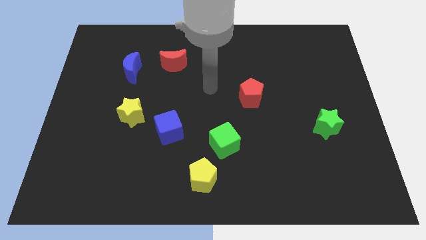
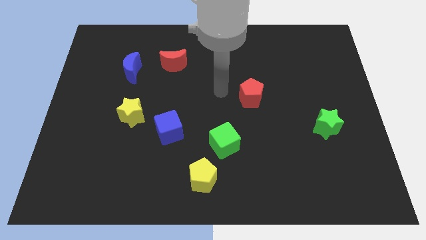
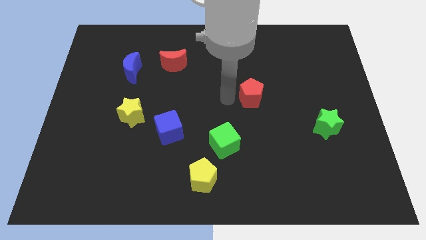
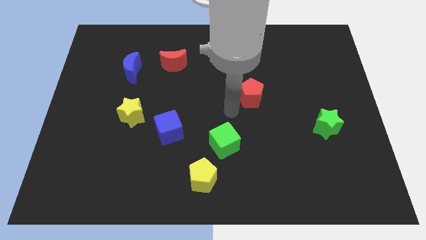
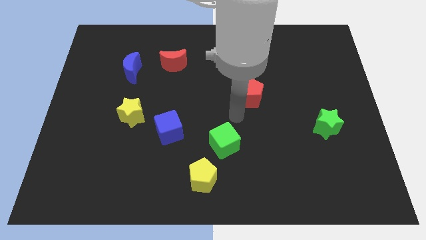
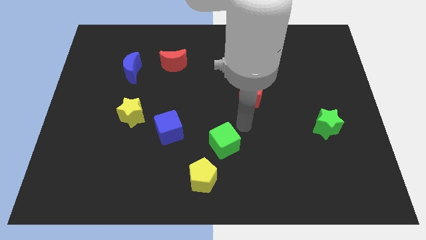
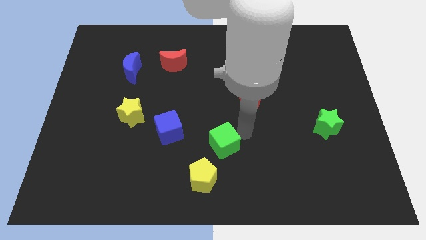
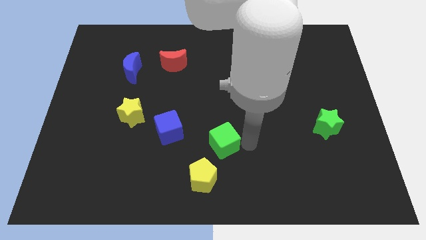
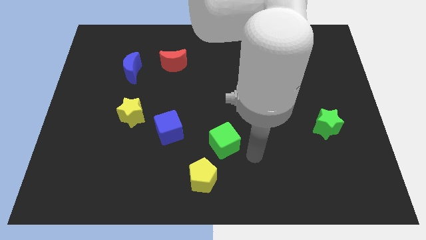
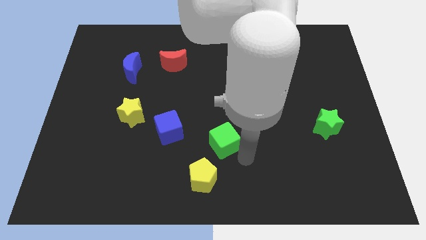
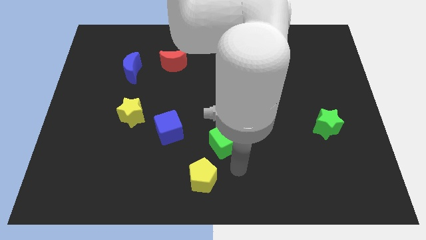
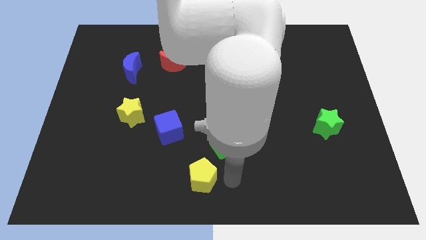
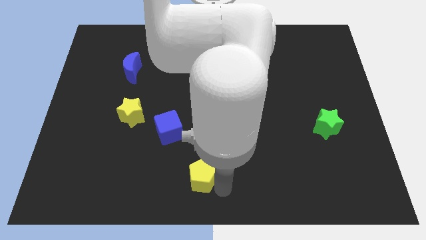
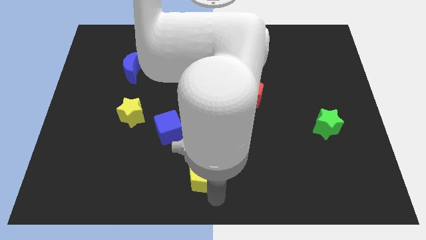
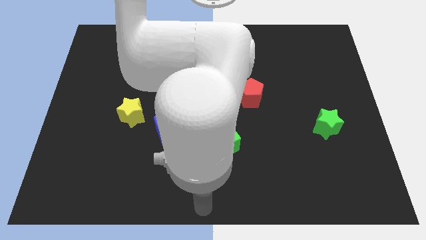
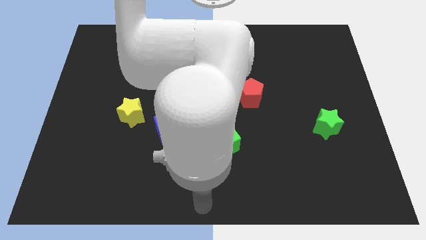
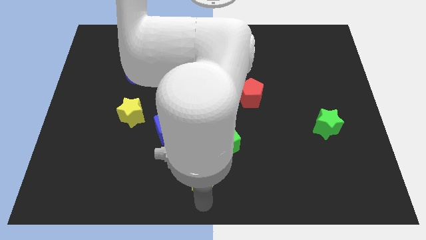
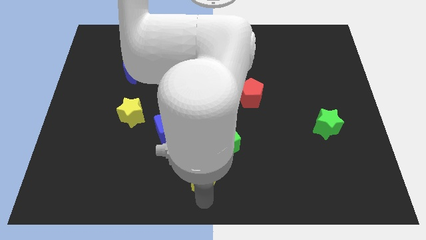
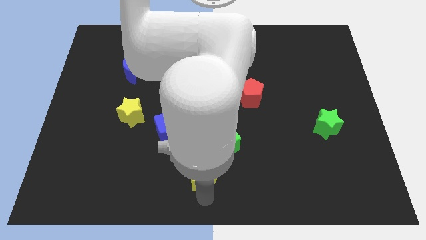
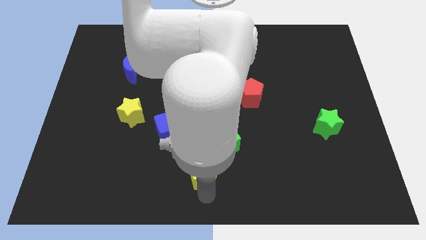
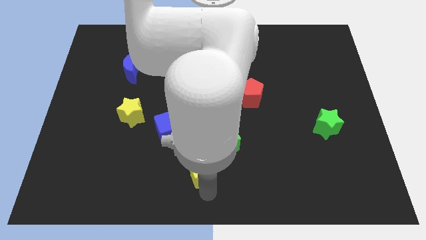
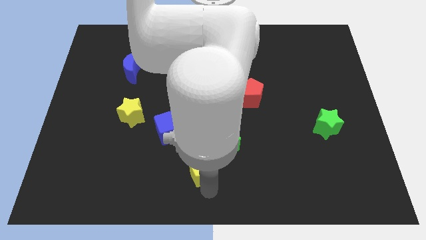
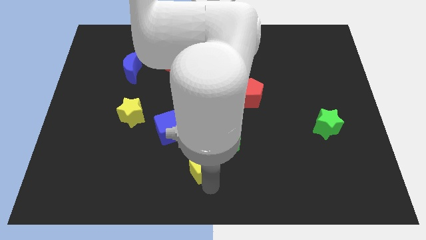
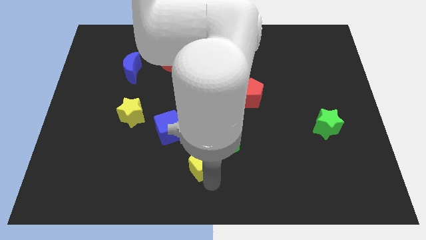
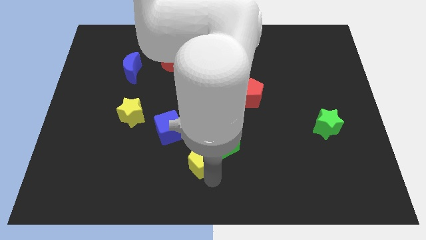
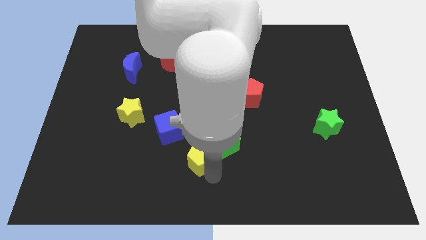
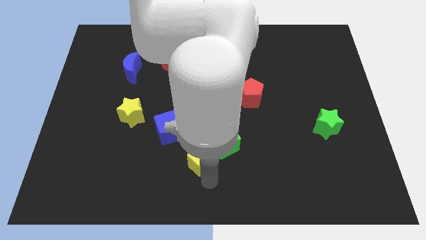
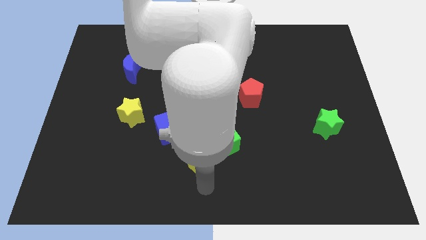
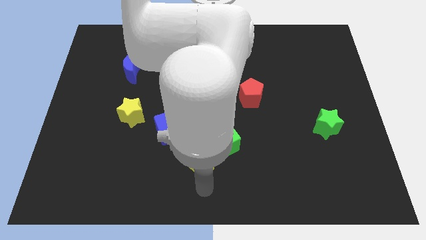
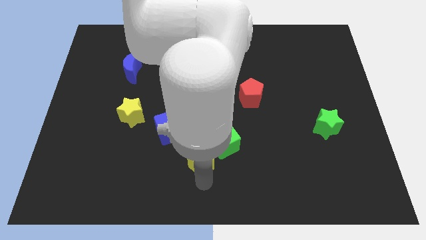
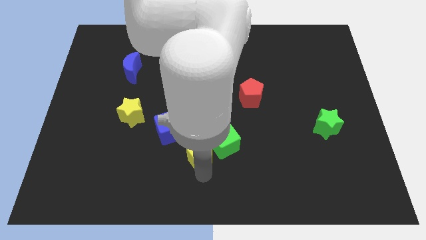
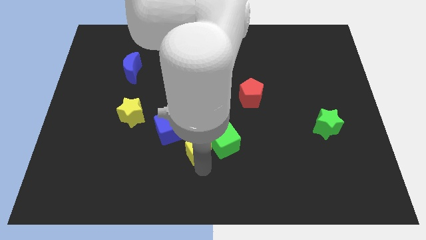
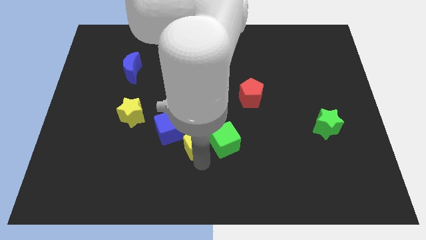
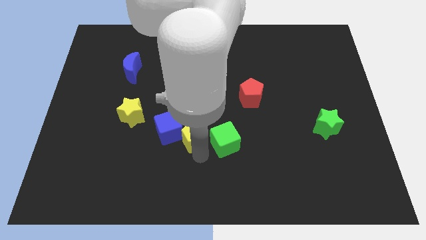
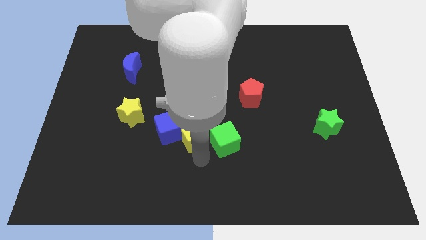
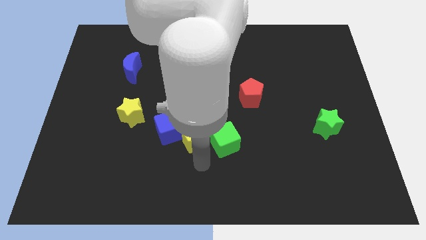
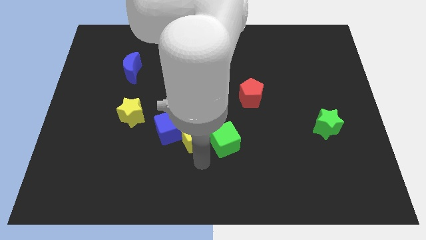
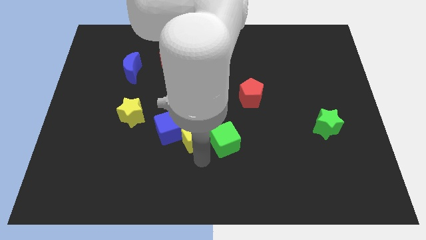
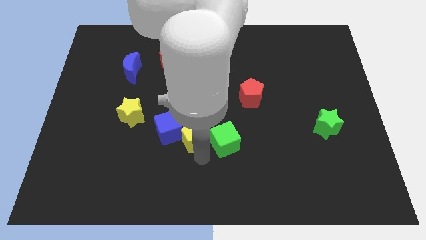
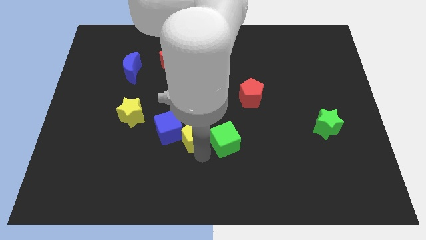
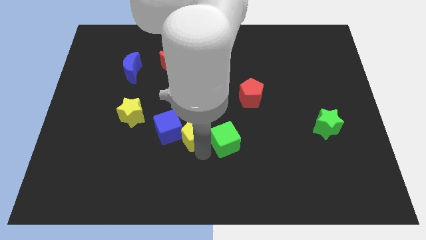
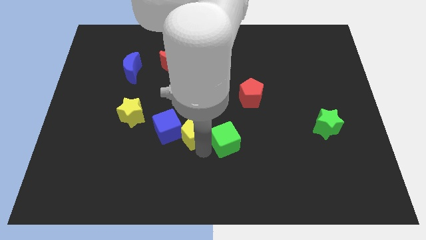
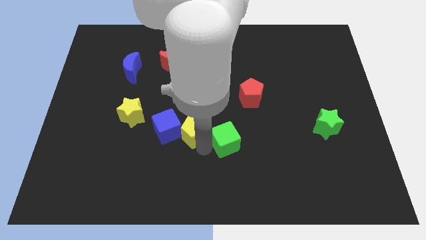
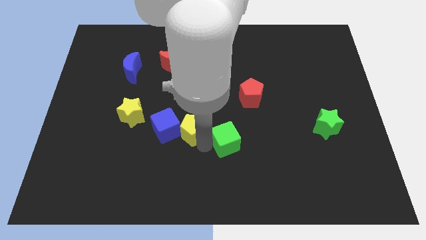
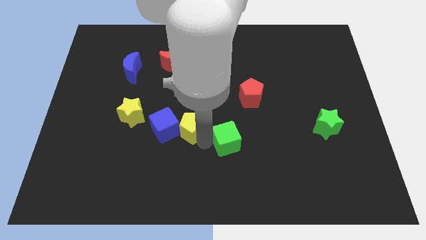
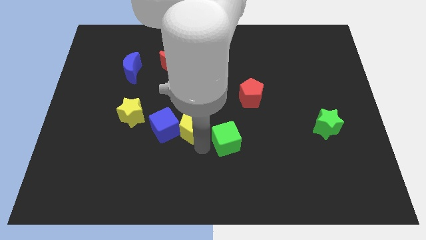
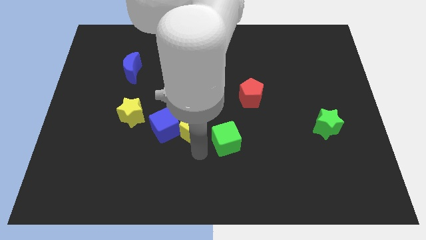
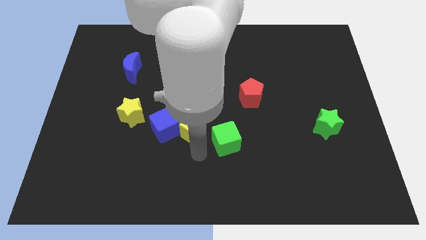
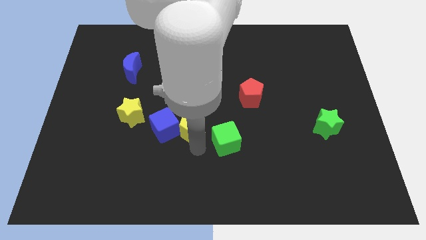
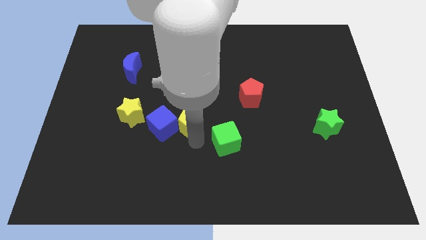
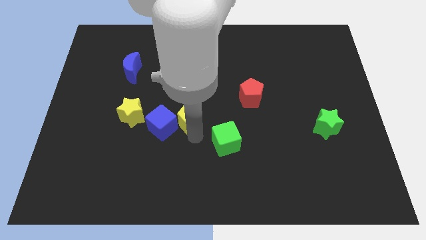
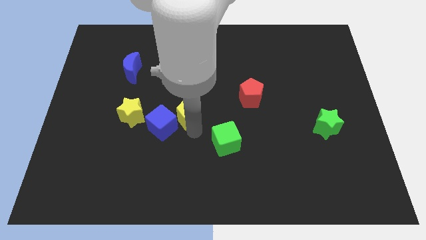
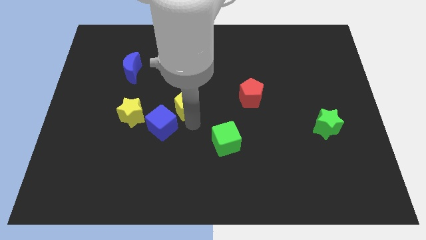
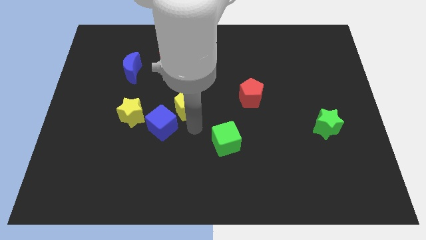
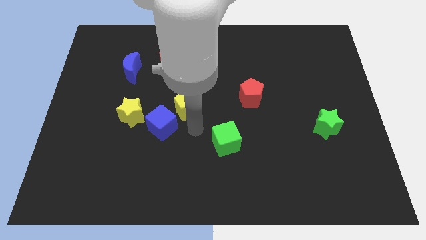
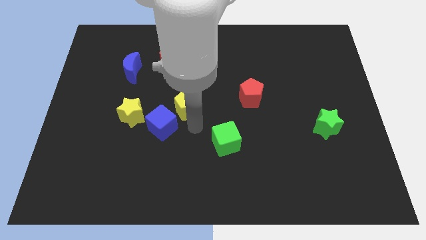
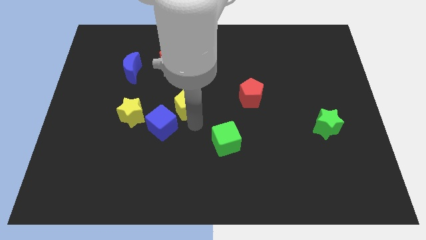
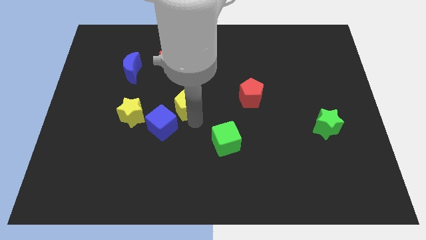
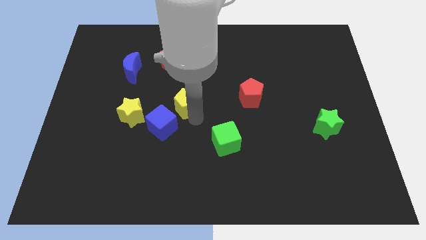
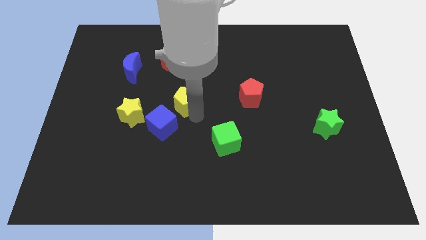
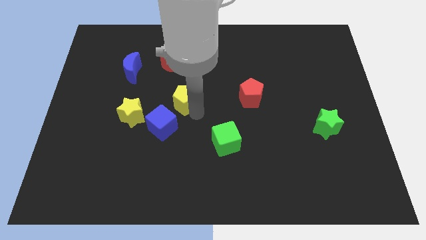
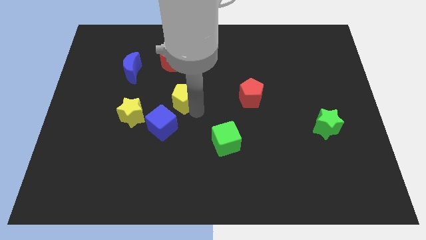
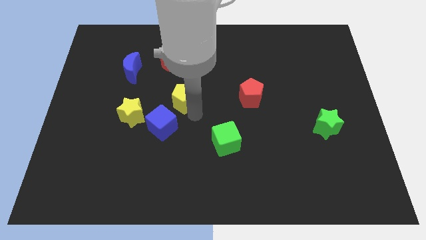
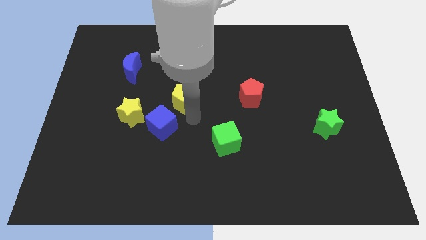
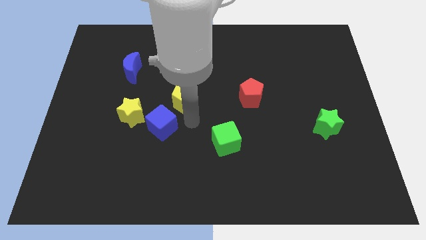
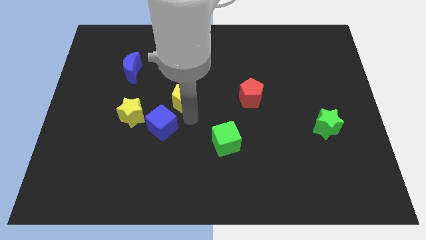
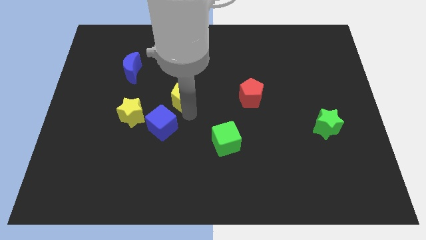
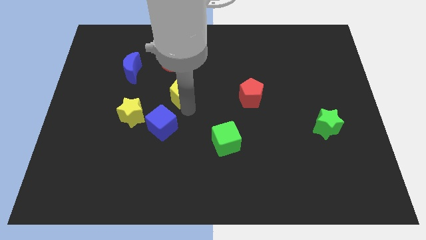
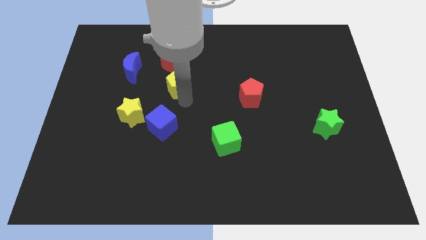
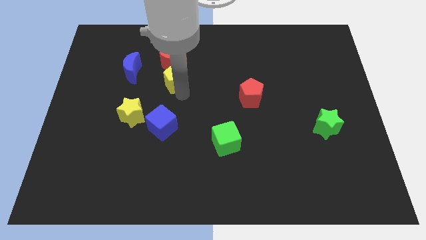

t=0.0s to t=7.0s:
push the yellow pentagon towards the red moon

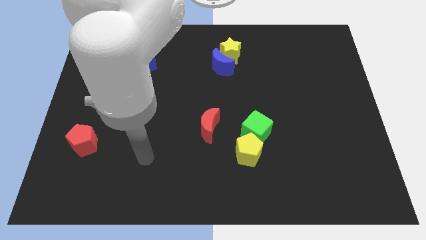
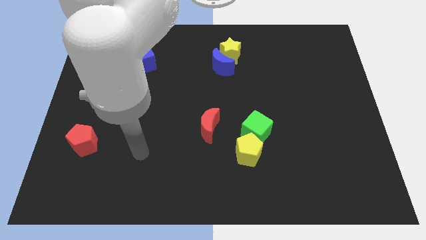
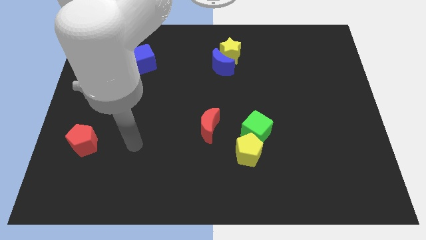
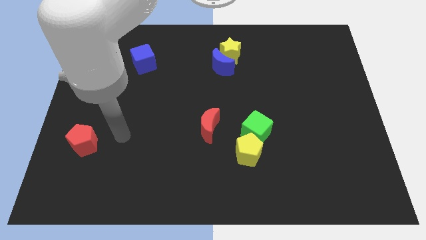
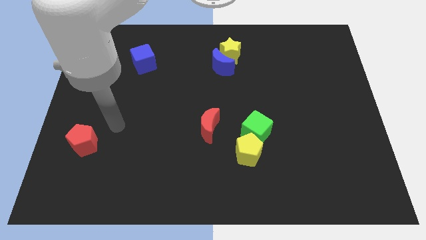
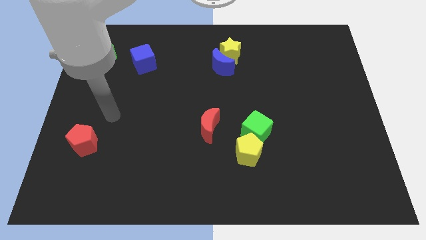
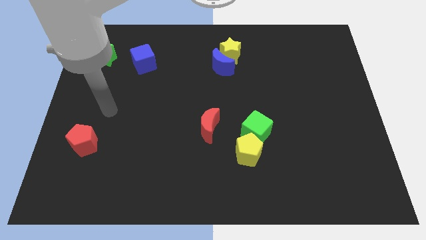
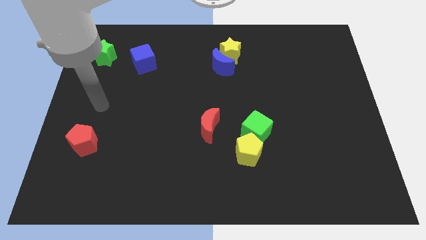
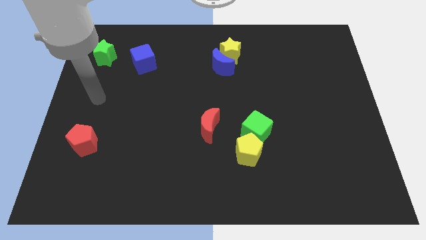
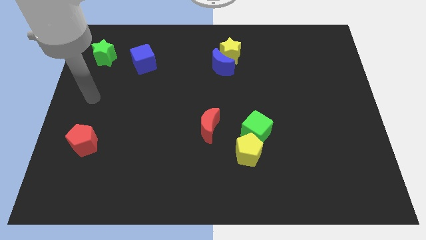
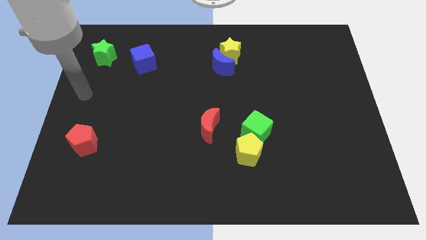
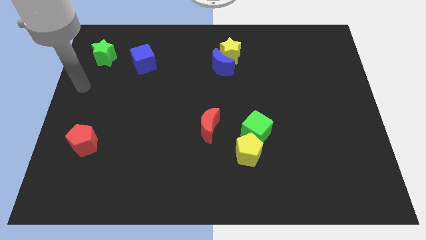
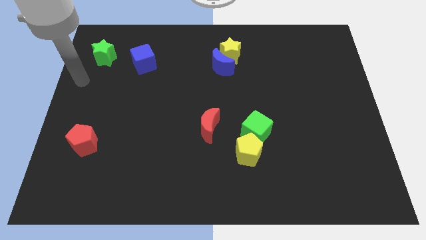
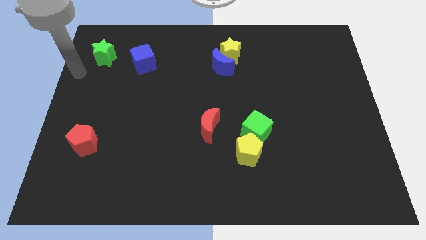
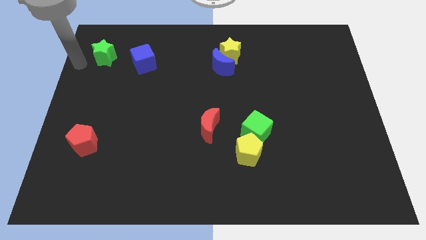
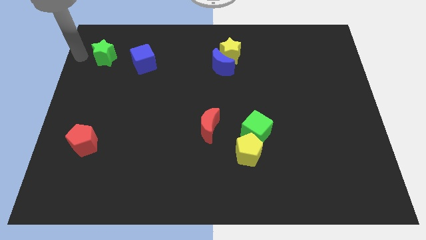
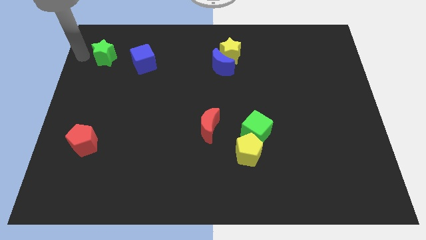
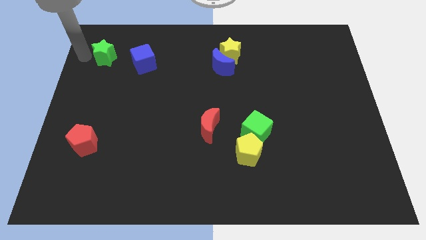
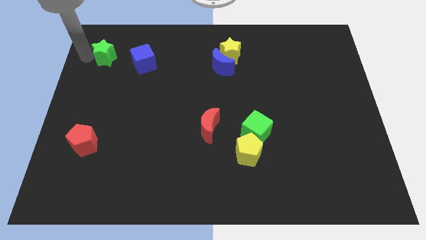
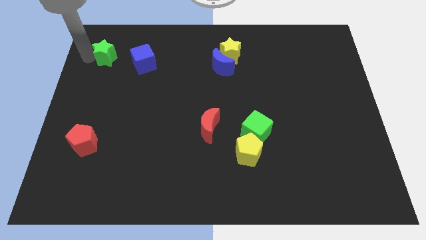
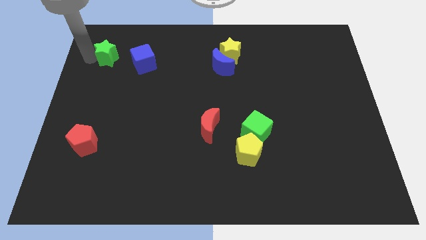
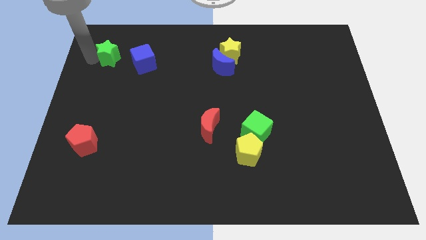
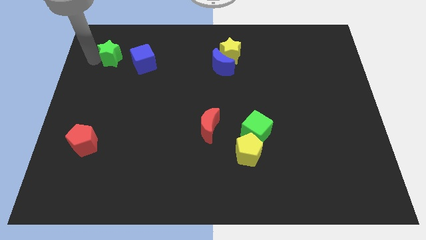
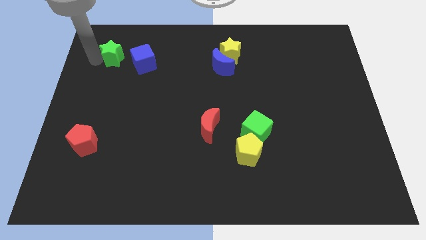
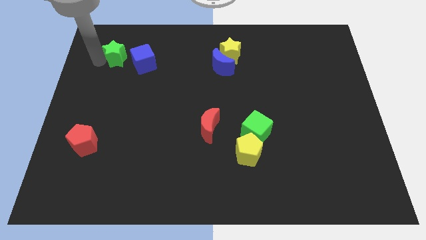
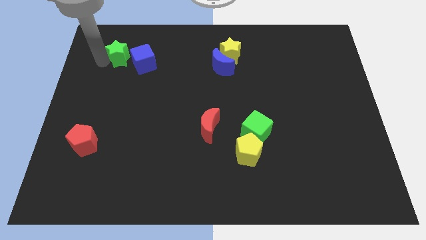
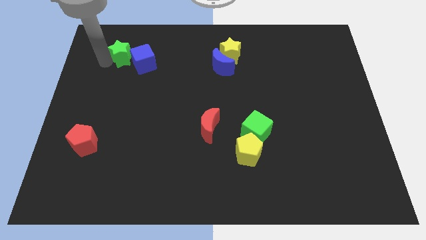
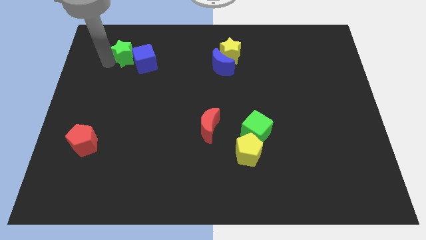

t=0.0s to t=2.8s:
push the green star close to the blue cube
